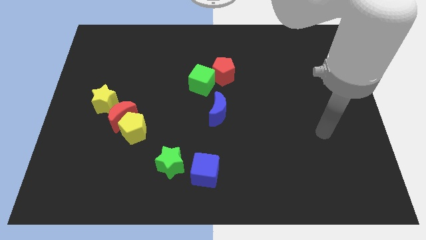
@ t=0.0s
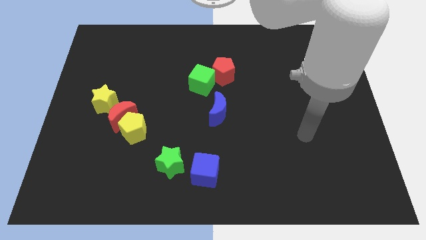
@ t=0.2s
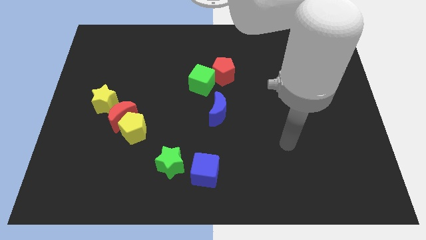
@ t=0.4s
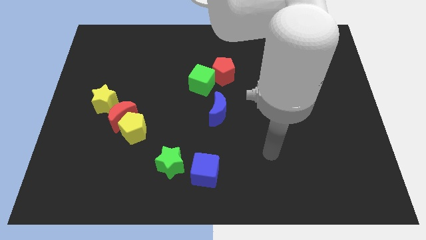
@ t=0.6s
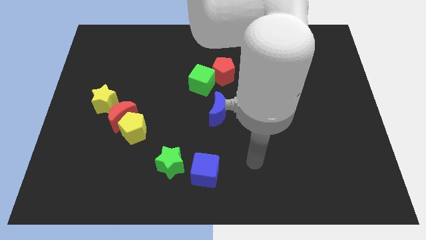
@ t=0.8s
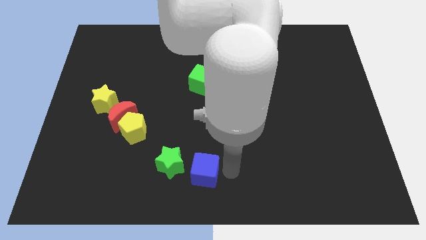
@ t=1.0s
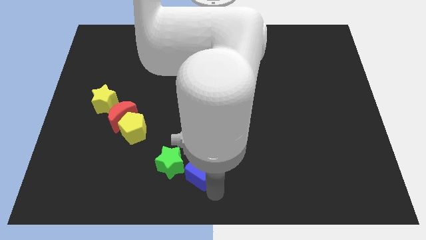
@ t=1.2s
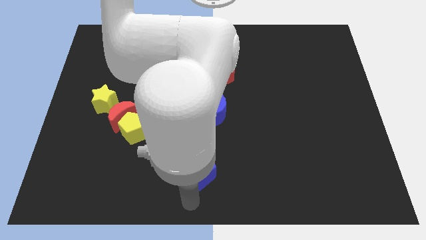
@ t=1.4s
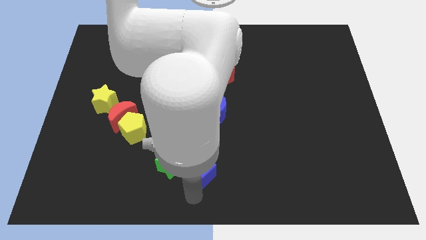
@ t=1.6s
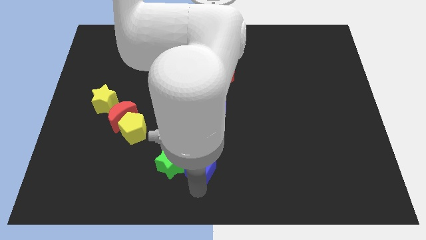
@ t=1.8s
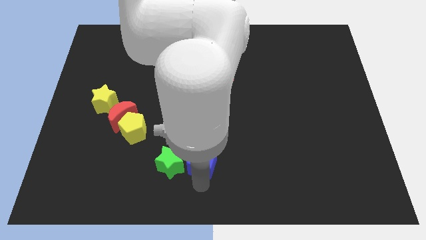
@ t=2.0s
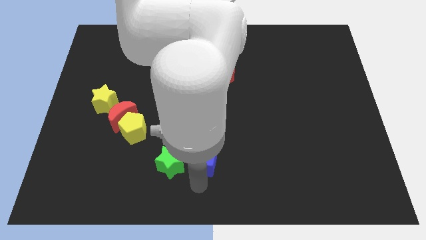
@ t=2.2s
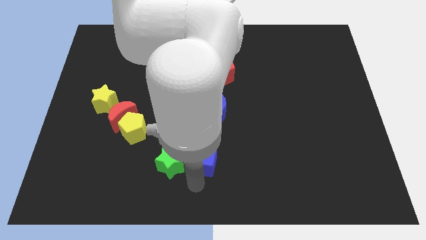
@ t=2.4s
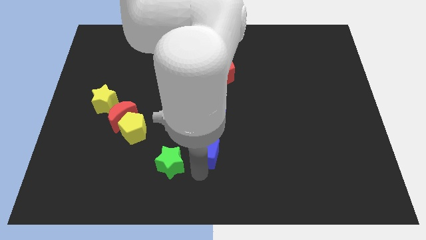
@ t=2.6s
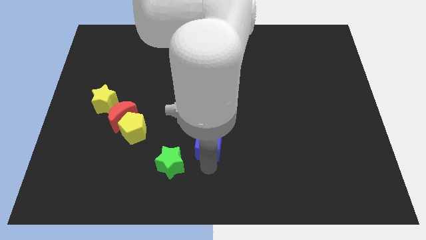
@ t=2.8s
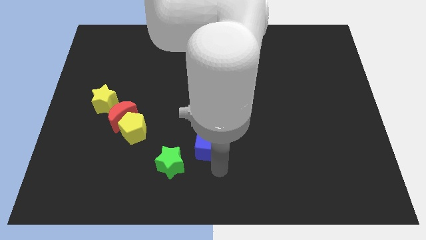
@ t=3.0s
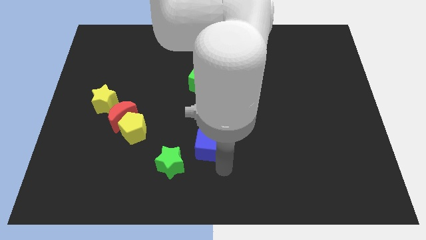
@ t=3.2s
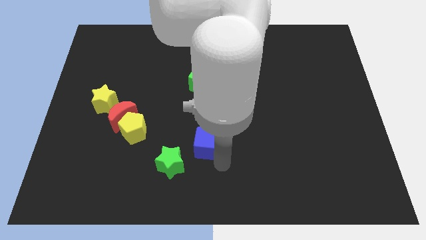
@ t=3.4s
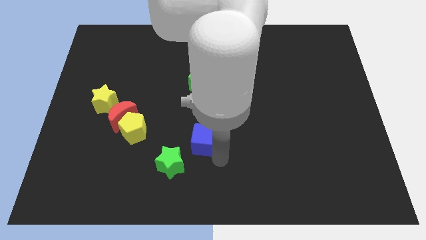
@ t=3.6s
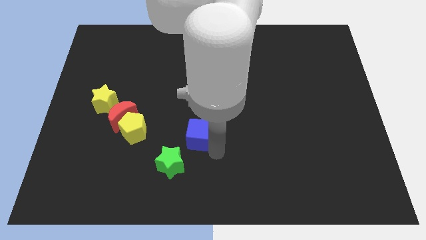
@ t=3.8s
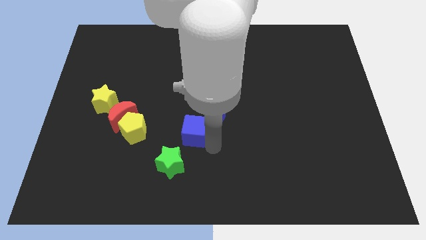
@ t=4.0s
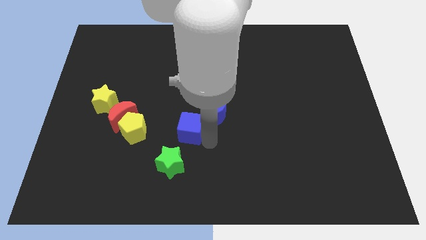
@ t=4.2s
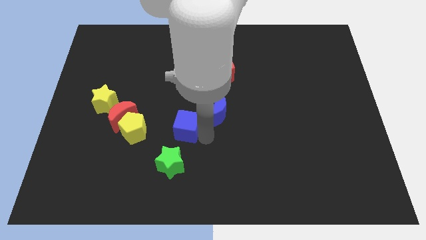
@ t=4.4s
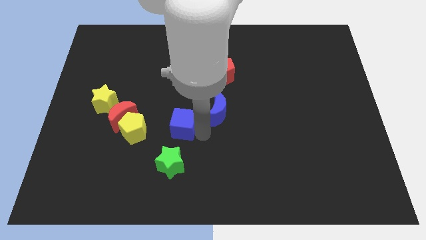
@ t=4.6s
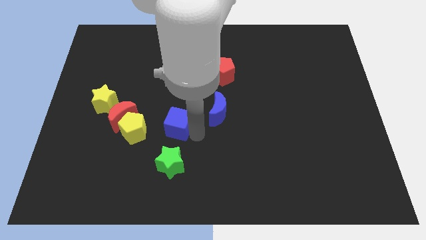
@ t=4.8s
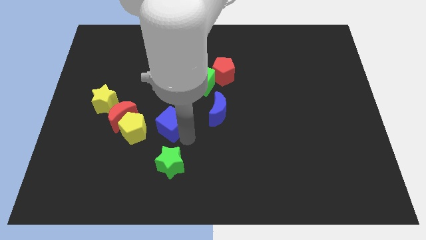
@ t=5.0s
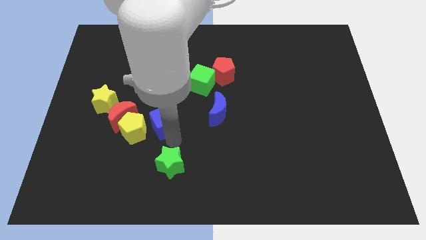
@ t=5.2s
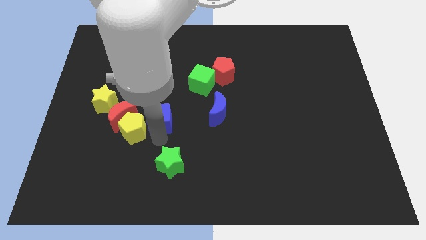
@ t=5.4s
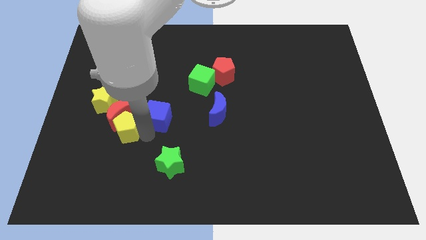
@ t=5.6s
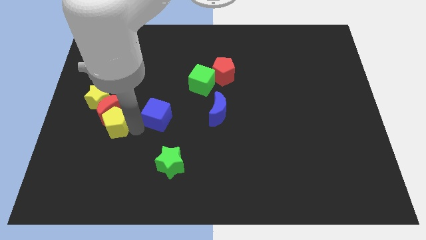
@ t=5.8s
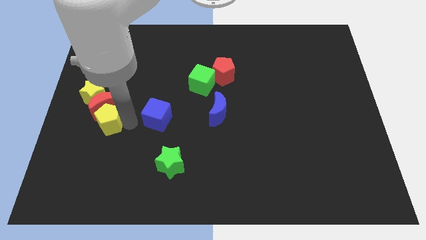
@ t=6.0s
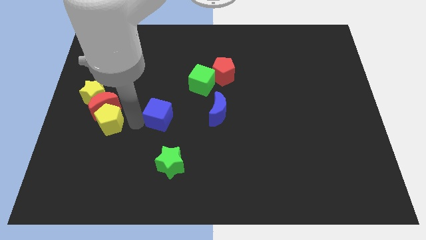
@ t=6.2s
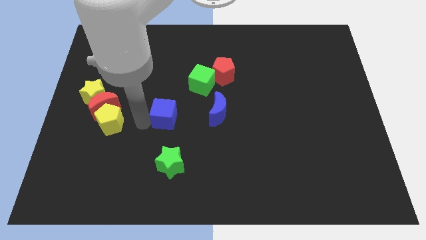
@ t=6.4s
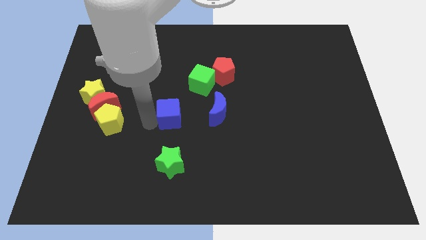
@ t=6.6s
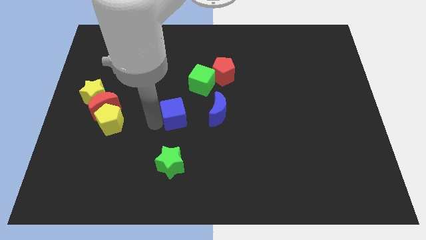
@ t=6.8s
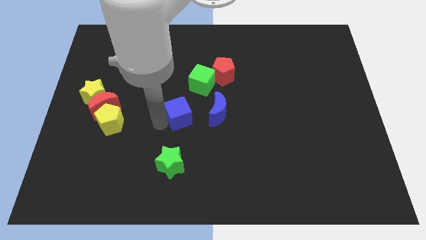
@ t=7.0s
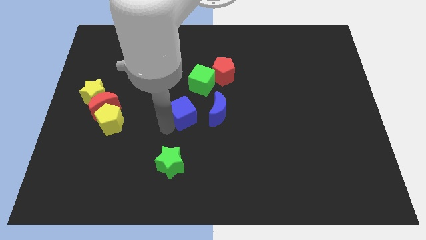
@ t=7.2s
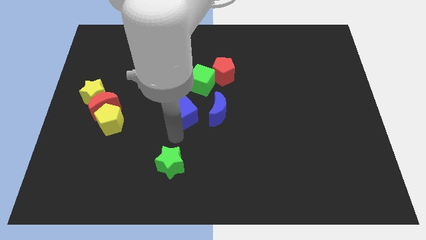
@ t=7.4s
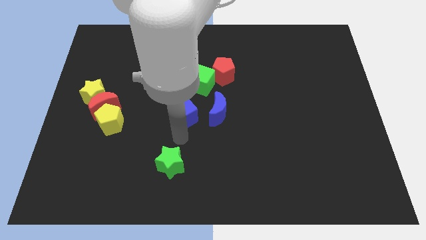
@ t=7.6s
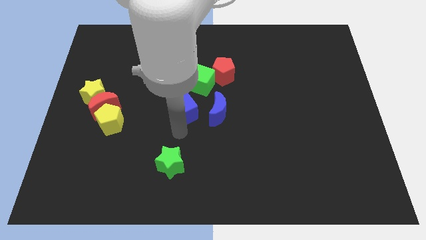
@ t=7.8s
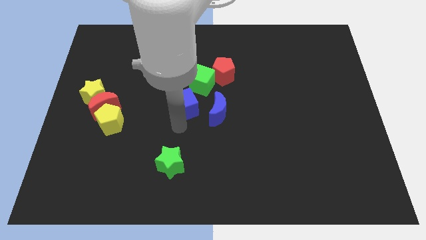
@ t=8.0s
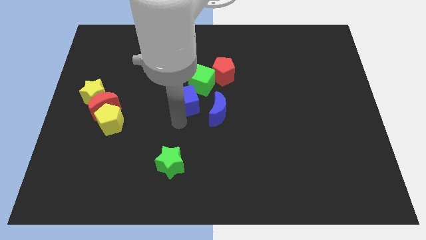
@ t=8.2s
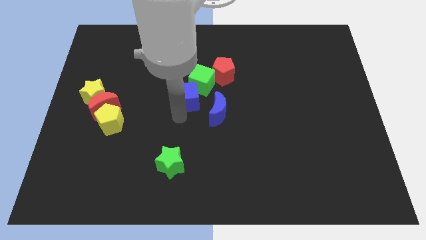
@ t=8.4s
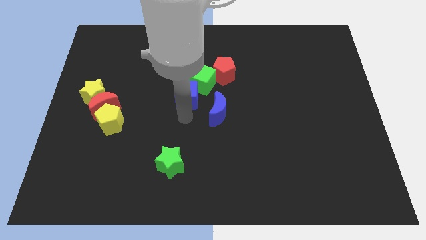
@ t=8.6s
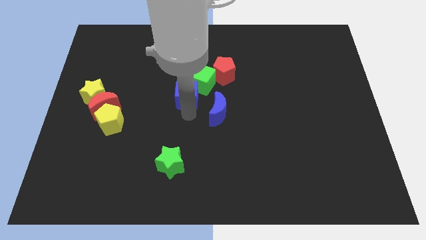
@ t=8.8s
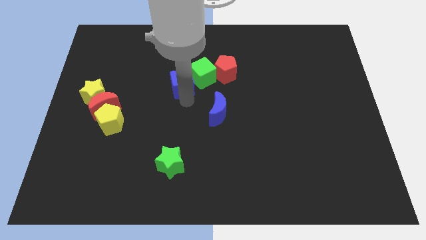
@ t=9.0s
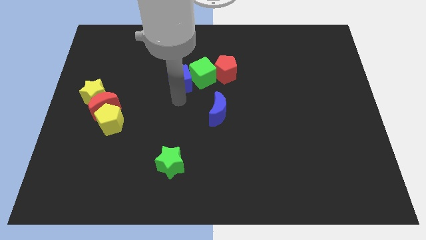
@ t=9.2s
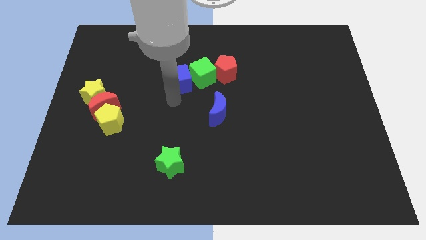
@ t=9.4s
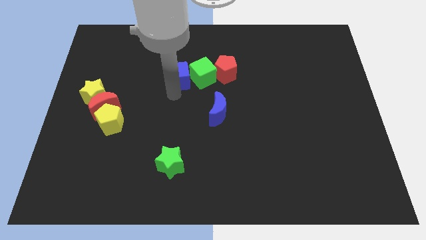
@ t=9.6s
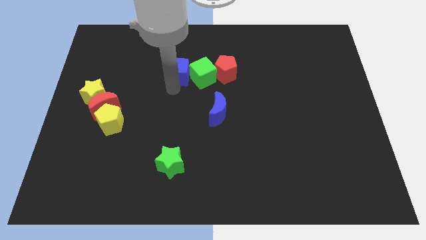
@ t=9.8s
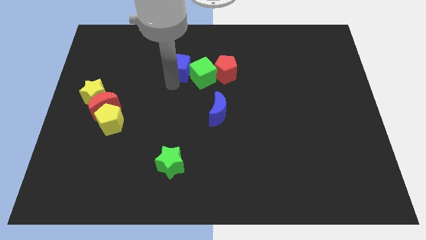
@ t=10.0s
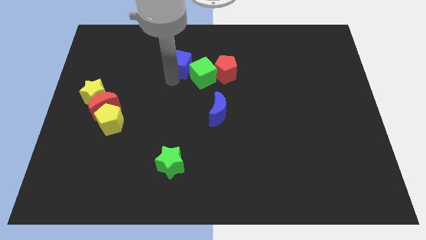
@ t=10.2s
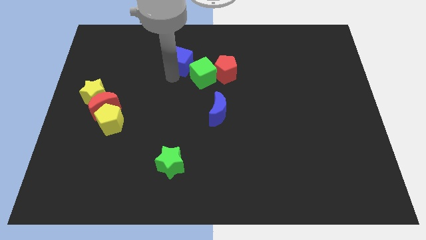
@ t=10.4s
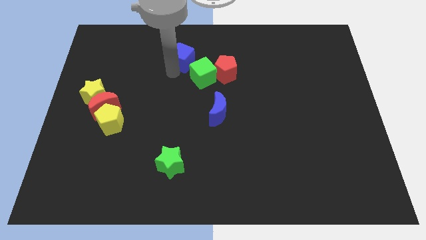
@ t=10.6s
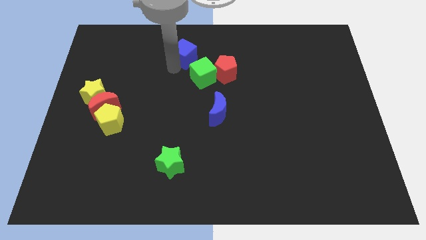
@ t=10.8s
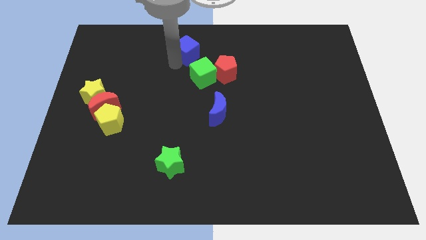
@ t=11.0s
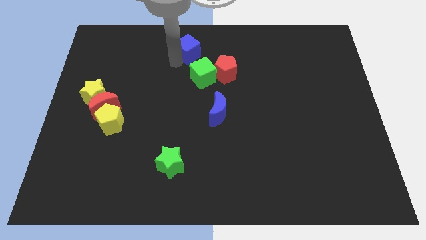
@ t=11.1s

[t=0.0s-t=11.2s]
push the blue cube to the towards your base
